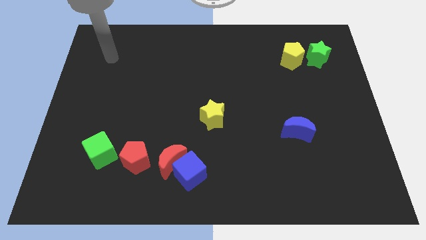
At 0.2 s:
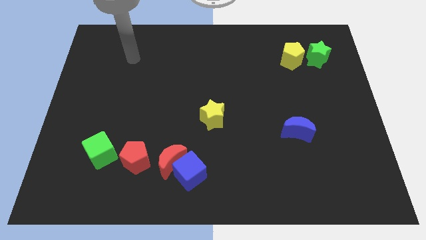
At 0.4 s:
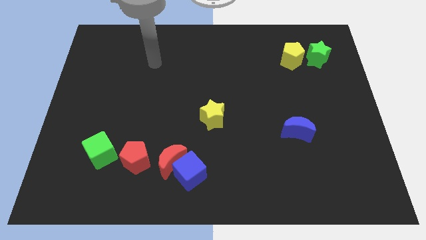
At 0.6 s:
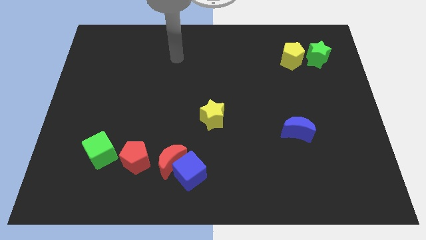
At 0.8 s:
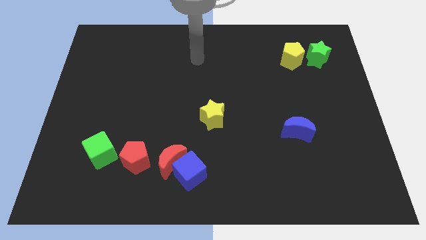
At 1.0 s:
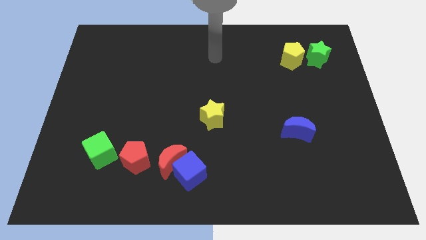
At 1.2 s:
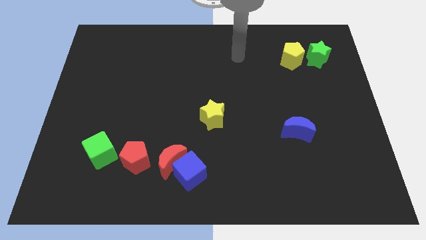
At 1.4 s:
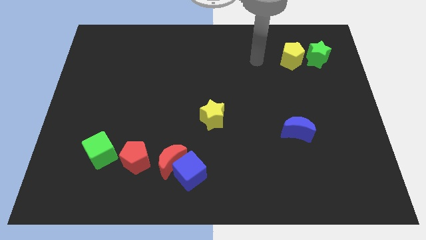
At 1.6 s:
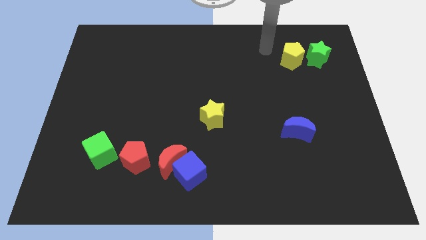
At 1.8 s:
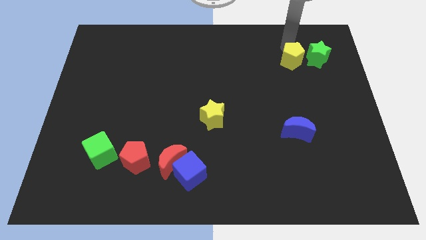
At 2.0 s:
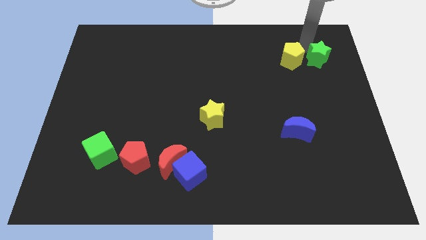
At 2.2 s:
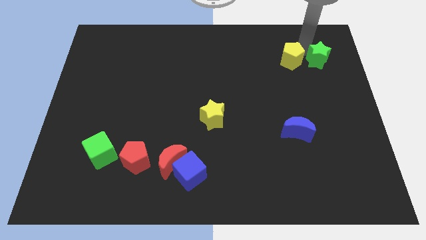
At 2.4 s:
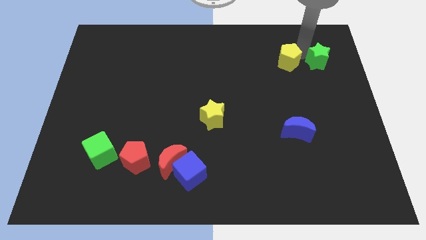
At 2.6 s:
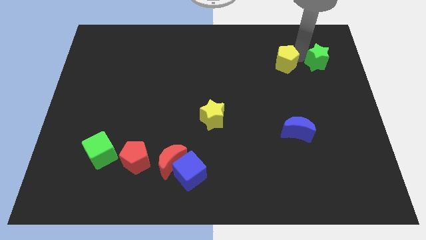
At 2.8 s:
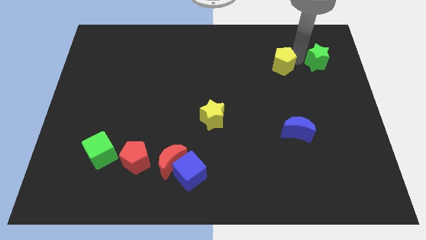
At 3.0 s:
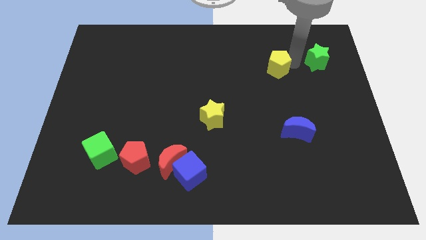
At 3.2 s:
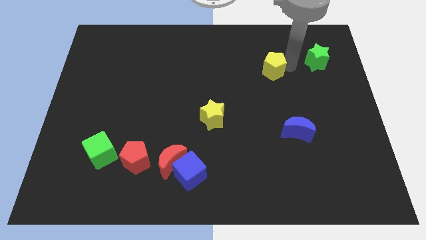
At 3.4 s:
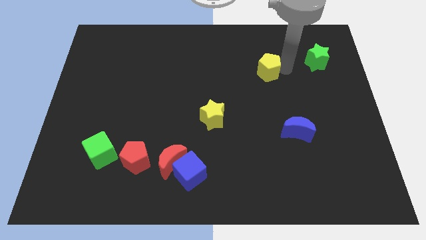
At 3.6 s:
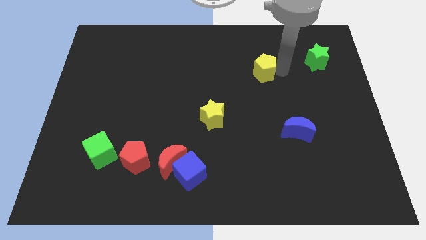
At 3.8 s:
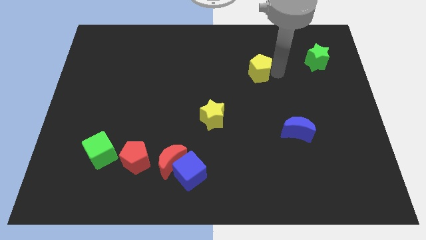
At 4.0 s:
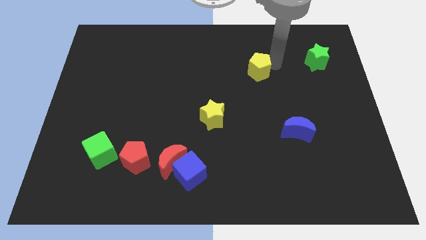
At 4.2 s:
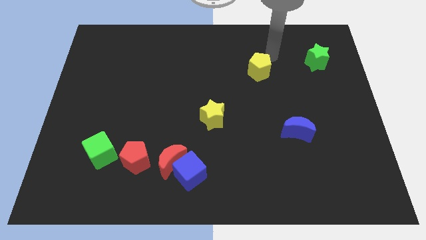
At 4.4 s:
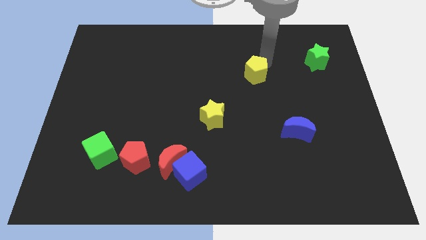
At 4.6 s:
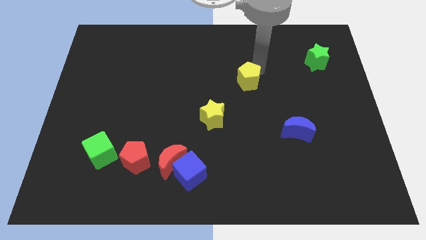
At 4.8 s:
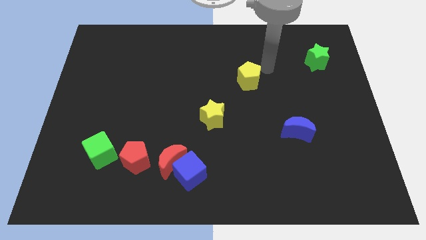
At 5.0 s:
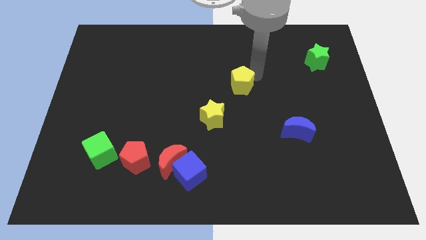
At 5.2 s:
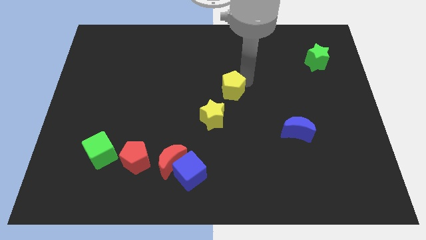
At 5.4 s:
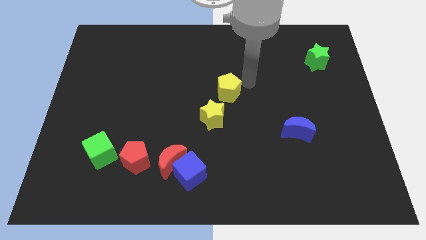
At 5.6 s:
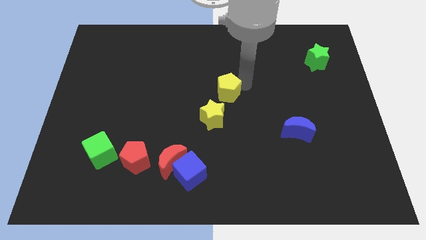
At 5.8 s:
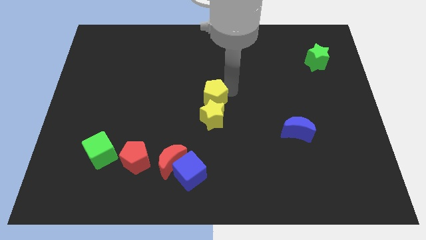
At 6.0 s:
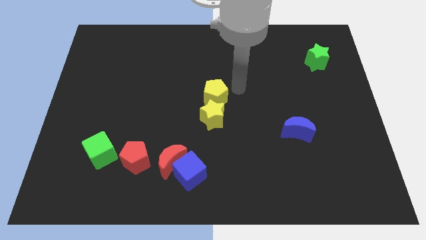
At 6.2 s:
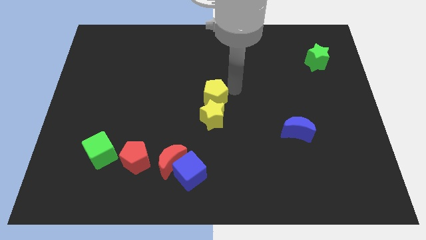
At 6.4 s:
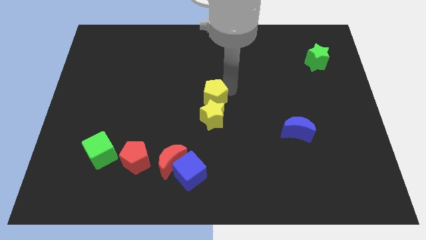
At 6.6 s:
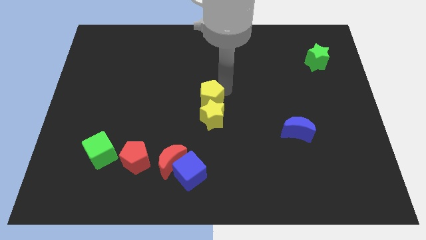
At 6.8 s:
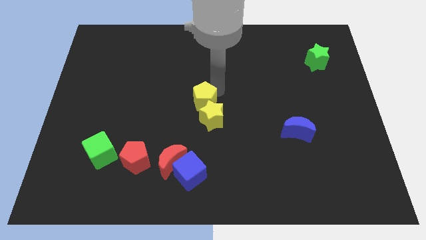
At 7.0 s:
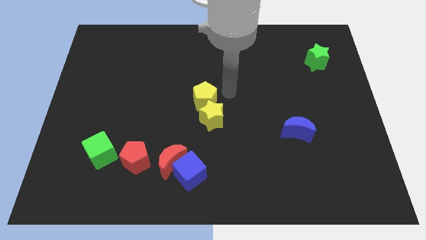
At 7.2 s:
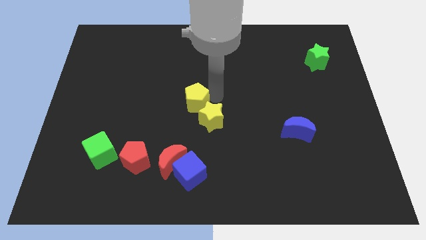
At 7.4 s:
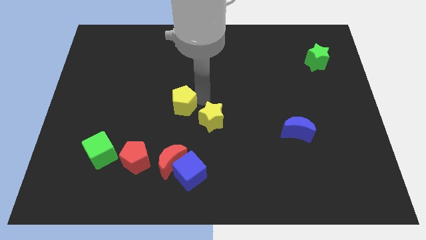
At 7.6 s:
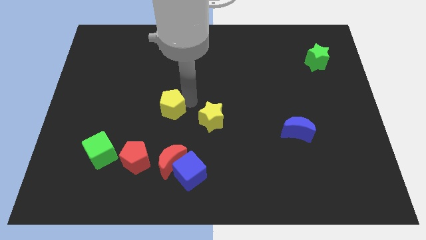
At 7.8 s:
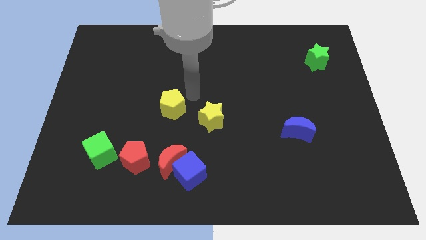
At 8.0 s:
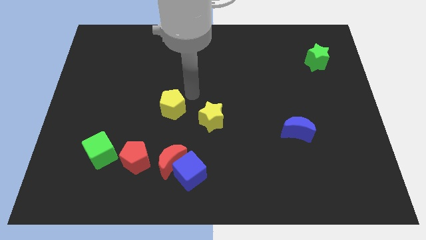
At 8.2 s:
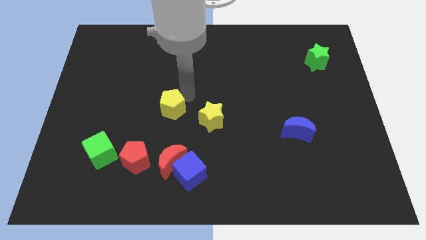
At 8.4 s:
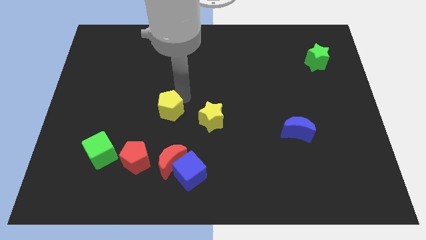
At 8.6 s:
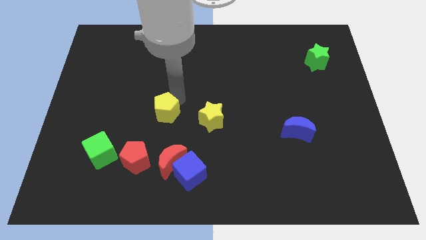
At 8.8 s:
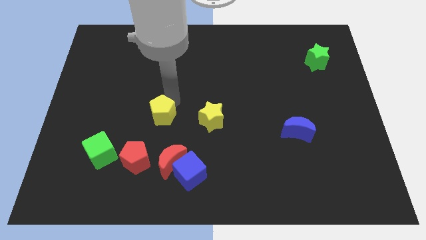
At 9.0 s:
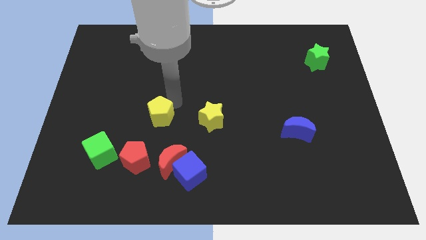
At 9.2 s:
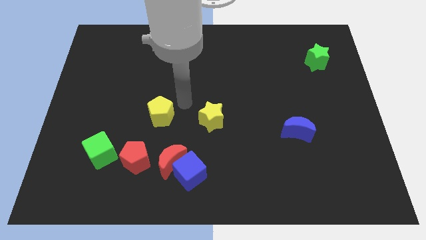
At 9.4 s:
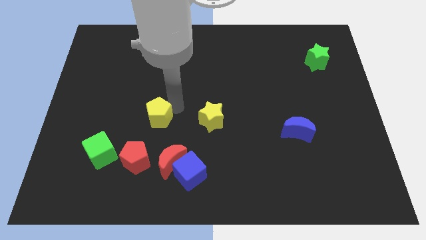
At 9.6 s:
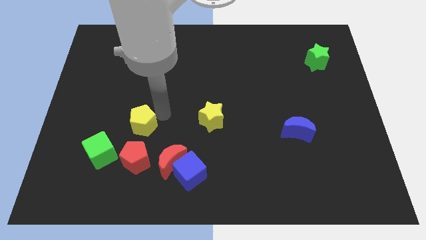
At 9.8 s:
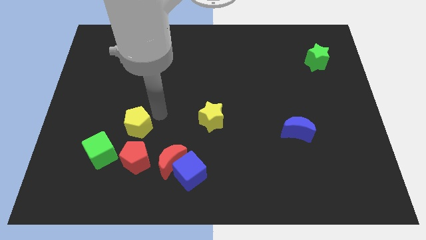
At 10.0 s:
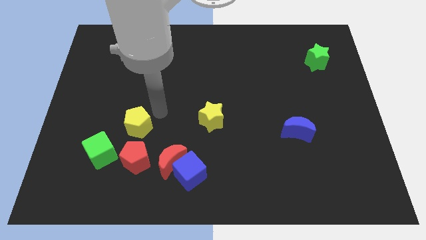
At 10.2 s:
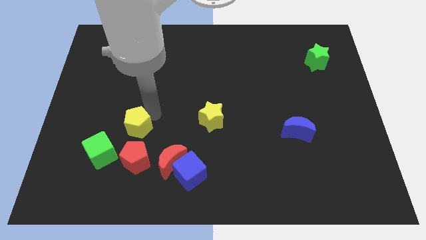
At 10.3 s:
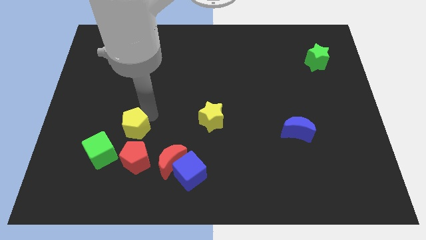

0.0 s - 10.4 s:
slide the yellow pentagon to the top left of the red pentagon

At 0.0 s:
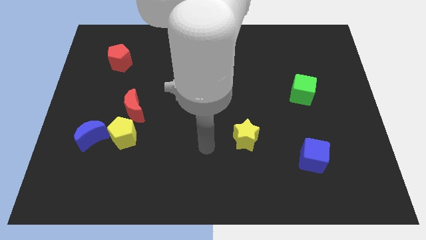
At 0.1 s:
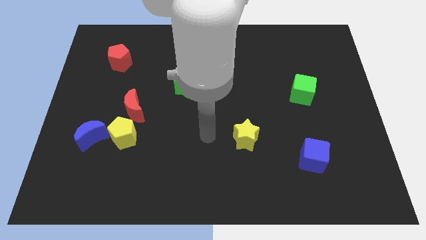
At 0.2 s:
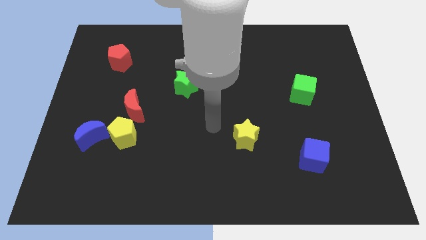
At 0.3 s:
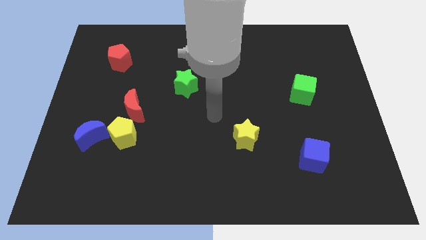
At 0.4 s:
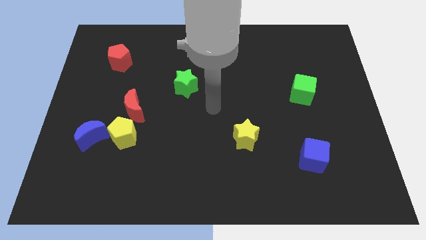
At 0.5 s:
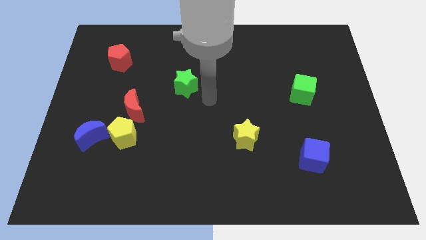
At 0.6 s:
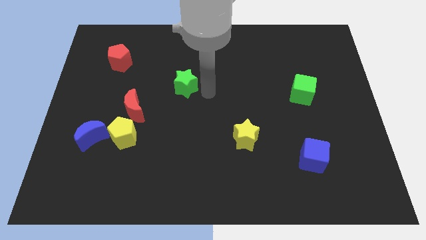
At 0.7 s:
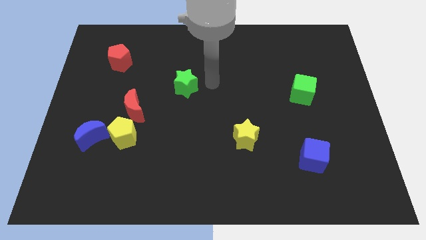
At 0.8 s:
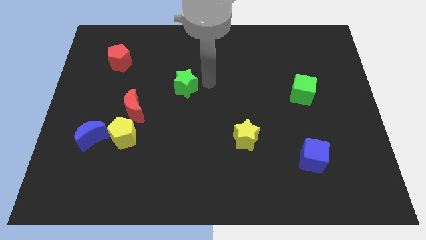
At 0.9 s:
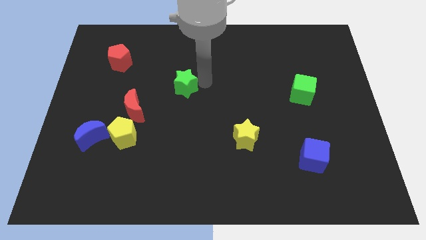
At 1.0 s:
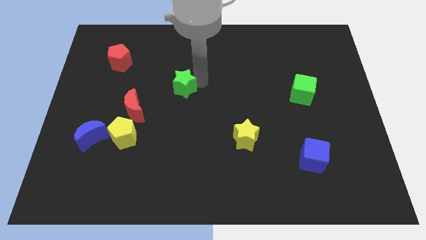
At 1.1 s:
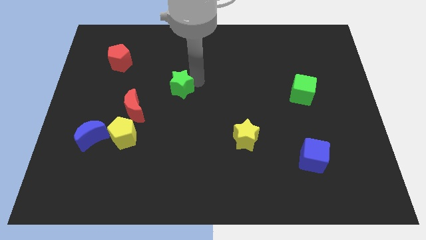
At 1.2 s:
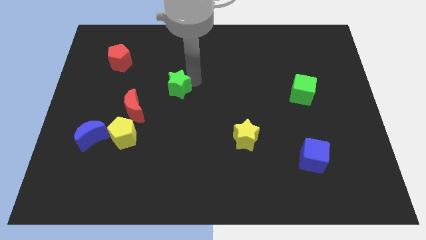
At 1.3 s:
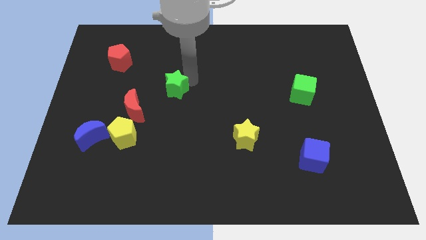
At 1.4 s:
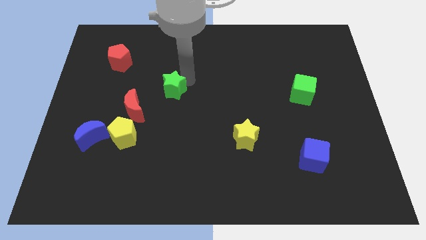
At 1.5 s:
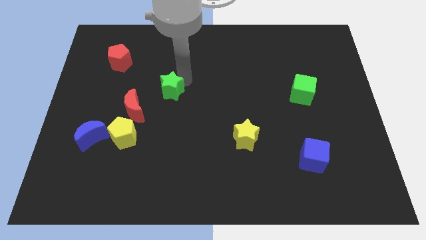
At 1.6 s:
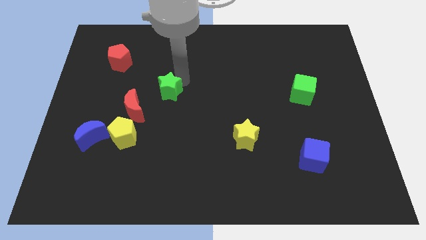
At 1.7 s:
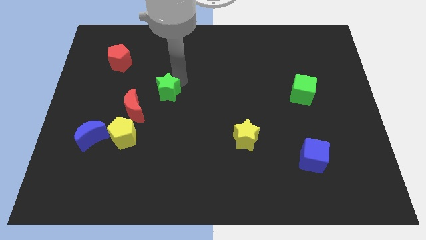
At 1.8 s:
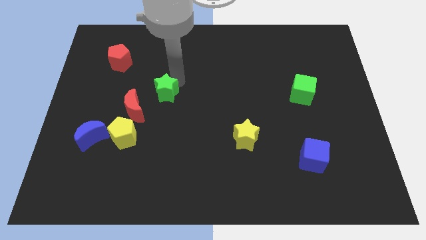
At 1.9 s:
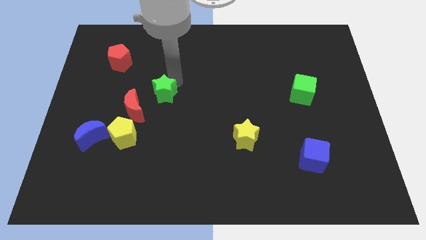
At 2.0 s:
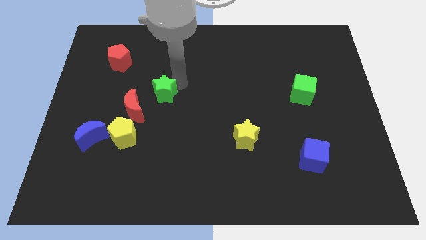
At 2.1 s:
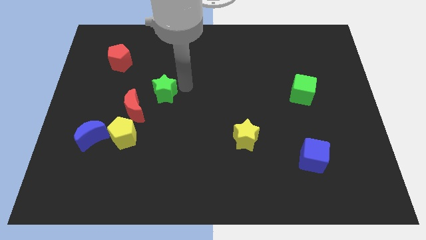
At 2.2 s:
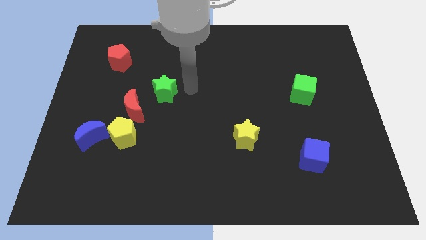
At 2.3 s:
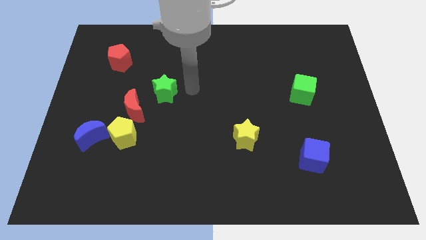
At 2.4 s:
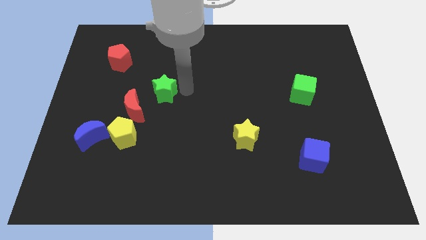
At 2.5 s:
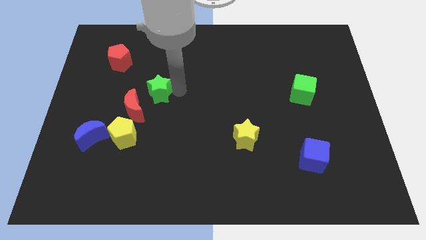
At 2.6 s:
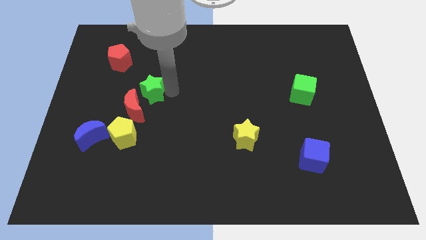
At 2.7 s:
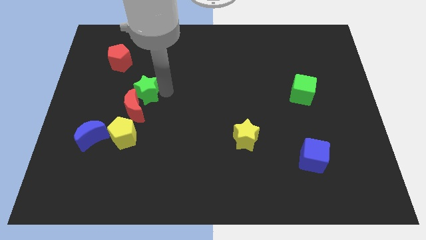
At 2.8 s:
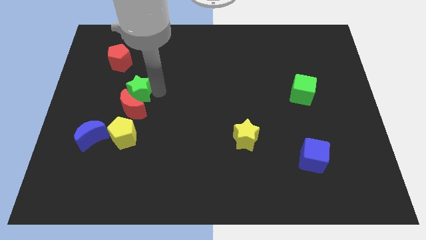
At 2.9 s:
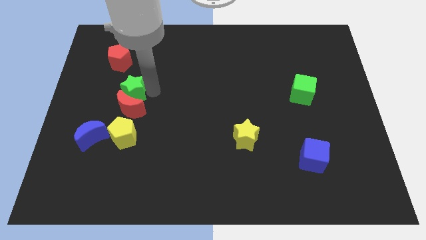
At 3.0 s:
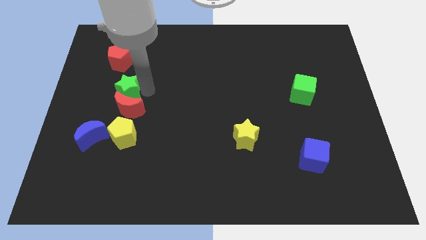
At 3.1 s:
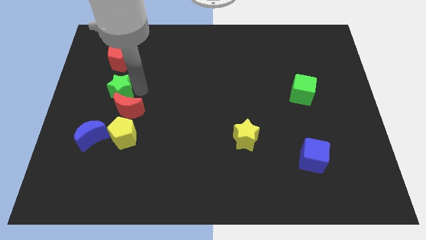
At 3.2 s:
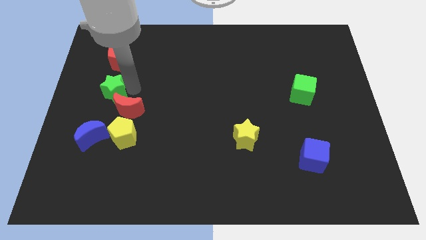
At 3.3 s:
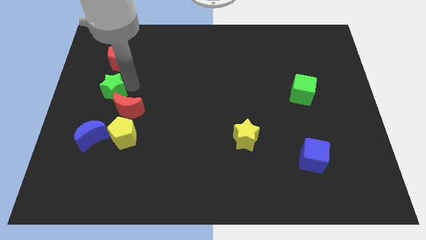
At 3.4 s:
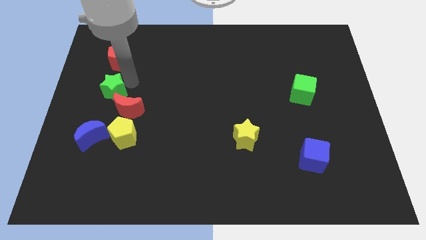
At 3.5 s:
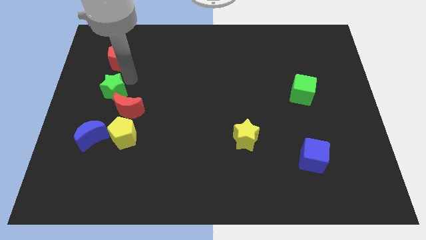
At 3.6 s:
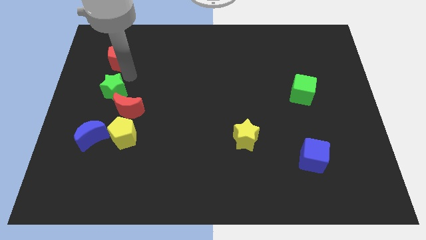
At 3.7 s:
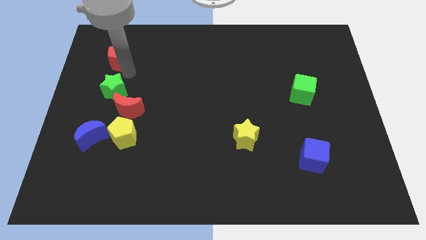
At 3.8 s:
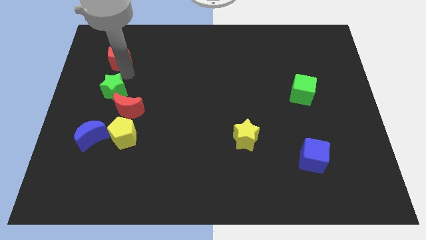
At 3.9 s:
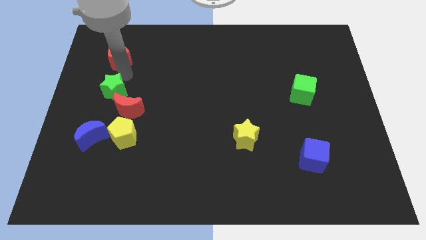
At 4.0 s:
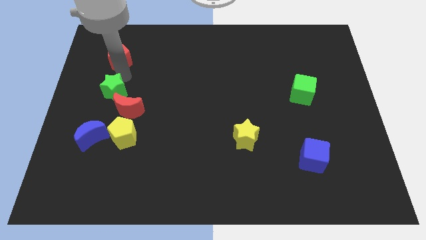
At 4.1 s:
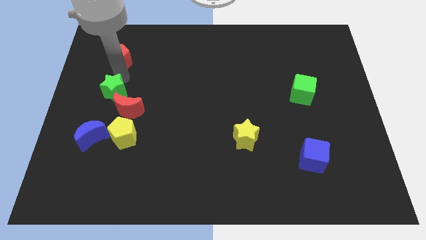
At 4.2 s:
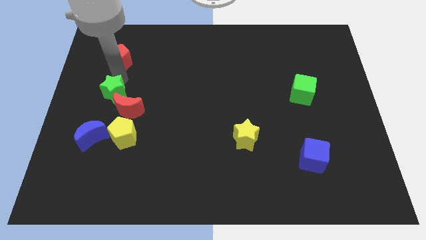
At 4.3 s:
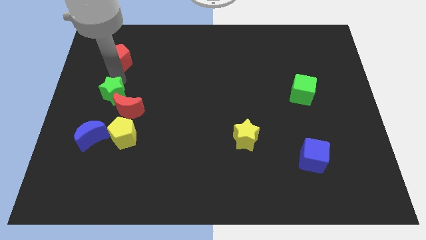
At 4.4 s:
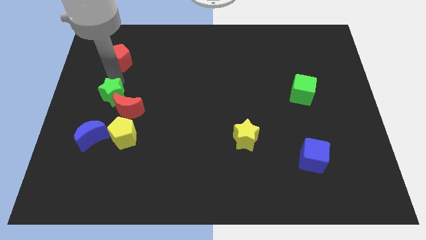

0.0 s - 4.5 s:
push the green star just left of the red moon
